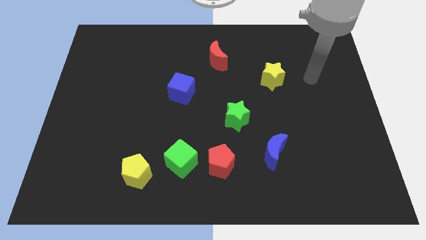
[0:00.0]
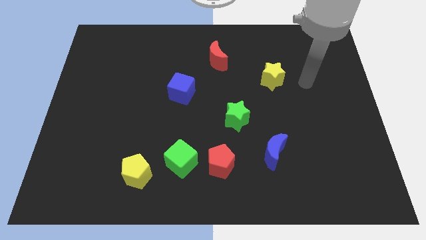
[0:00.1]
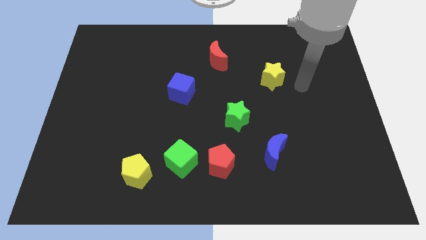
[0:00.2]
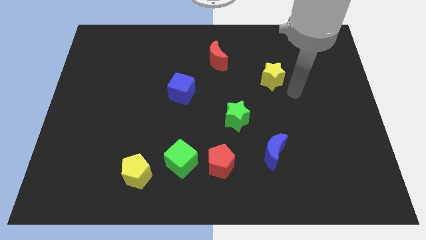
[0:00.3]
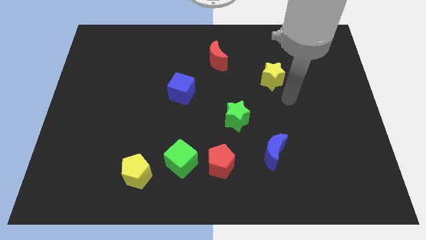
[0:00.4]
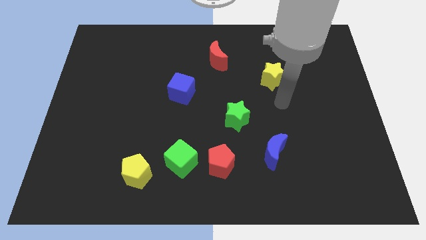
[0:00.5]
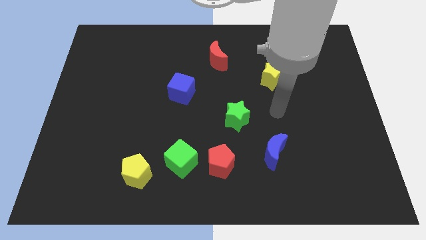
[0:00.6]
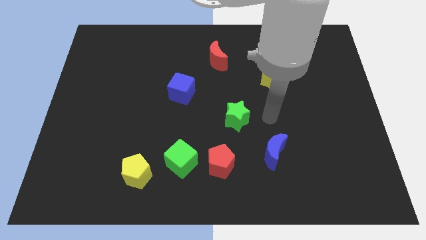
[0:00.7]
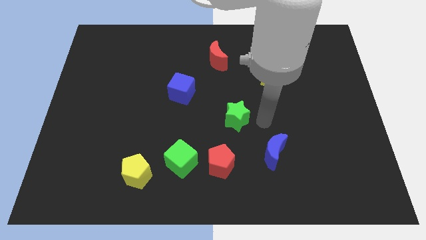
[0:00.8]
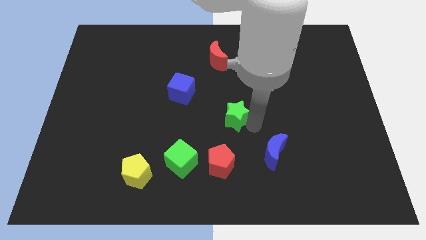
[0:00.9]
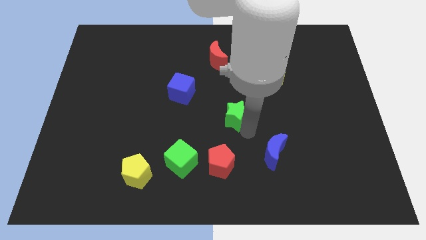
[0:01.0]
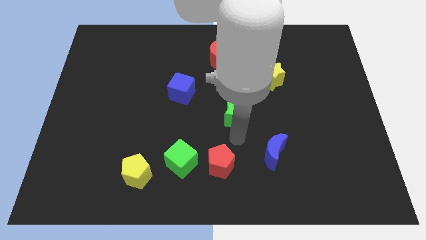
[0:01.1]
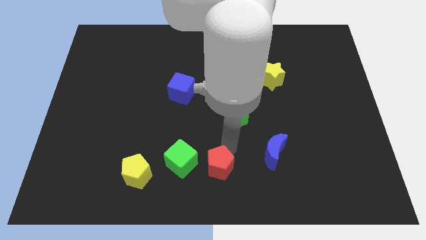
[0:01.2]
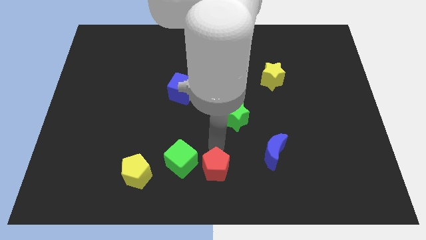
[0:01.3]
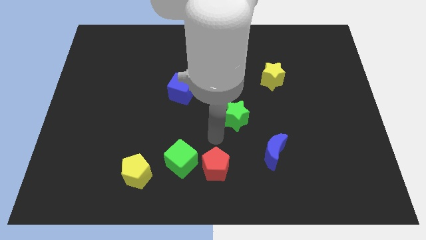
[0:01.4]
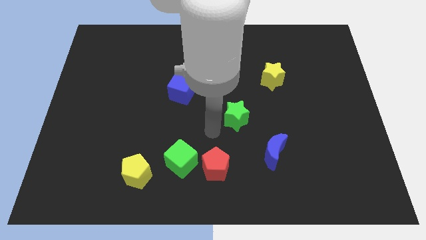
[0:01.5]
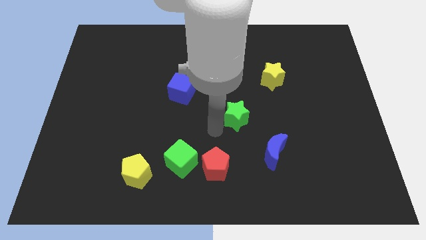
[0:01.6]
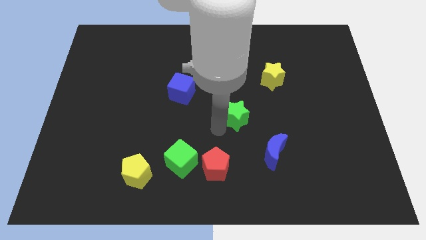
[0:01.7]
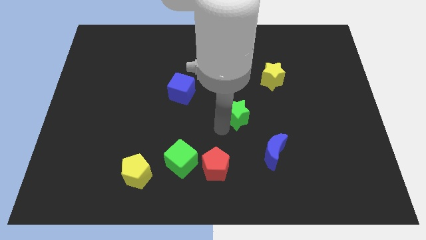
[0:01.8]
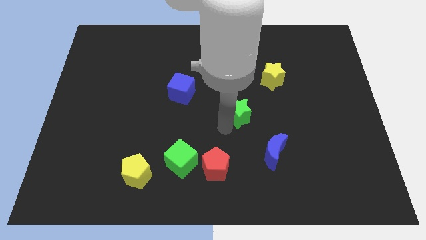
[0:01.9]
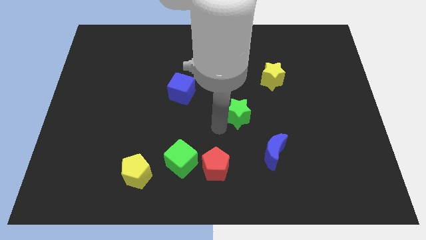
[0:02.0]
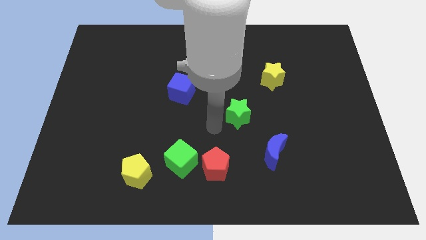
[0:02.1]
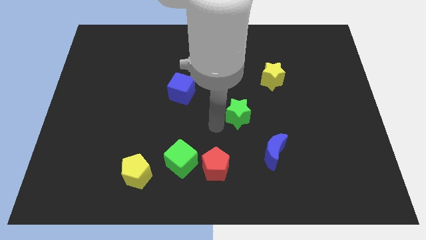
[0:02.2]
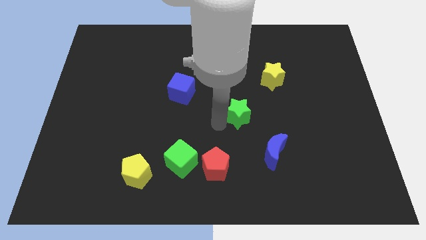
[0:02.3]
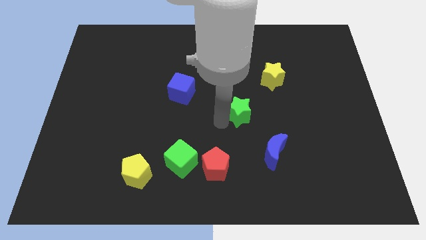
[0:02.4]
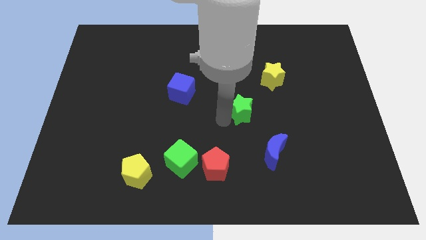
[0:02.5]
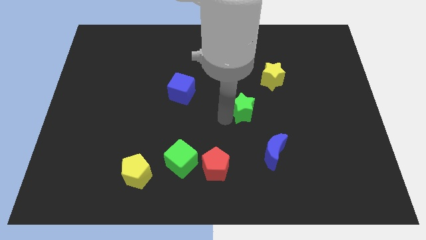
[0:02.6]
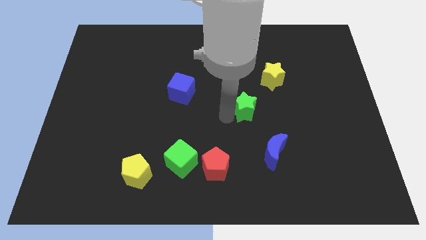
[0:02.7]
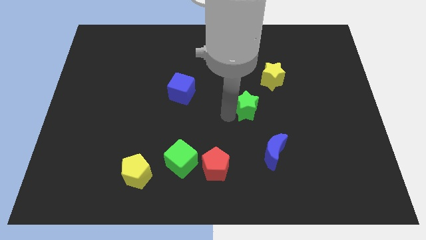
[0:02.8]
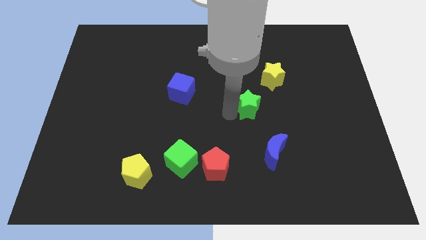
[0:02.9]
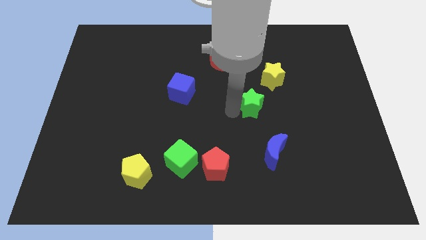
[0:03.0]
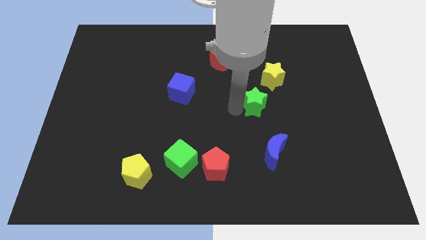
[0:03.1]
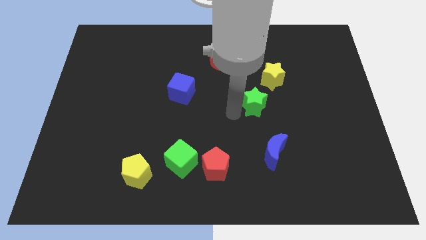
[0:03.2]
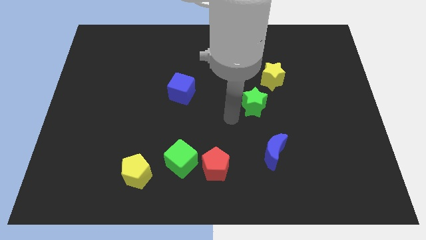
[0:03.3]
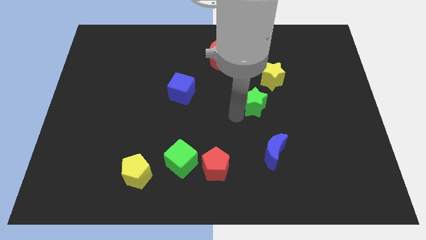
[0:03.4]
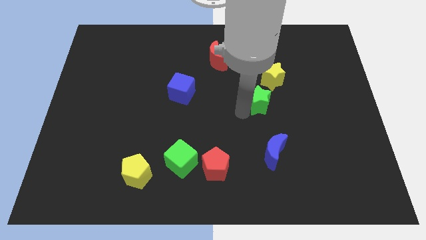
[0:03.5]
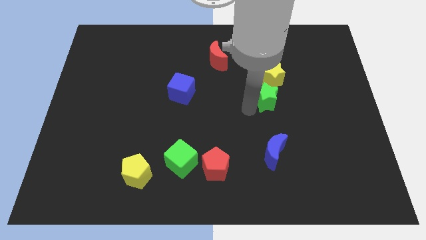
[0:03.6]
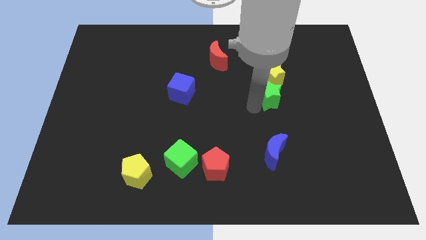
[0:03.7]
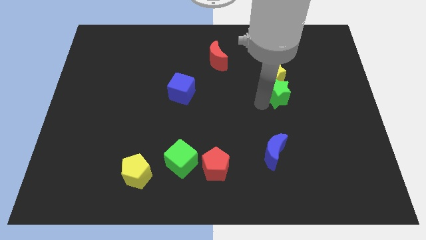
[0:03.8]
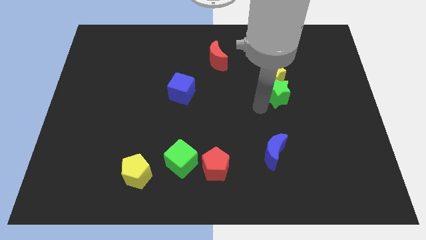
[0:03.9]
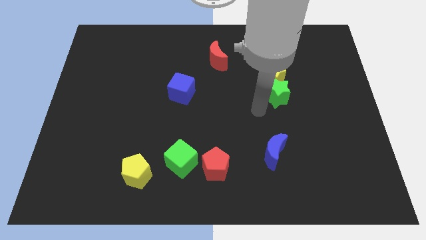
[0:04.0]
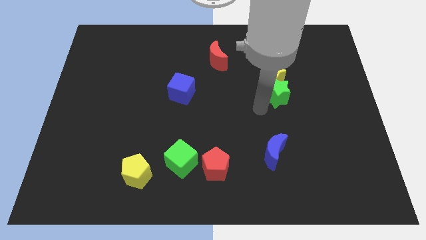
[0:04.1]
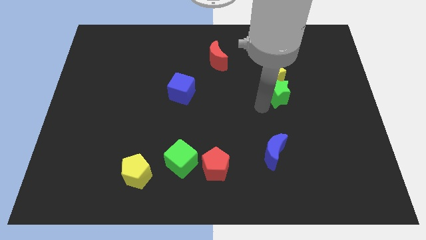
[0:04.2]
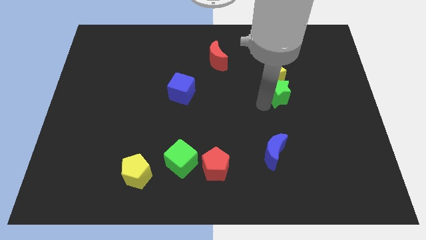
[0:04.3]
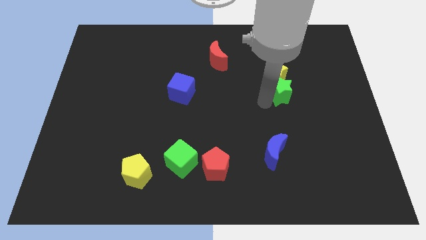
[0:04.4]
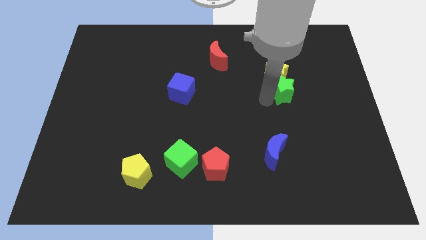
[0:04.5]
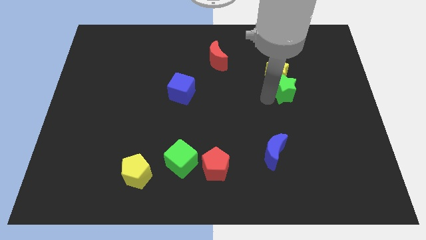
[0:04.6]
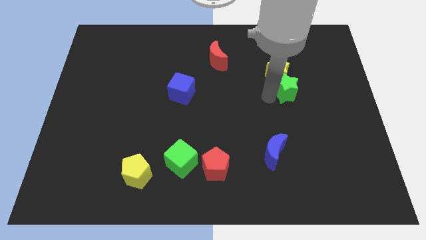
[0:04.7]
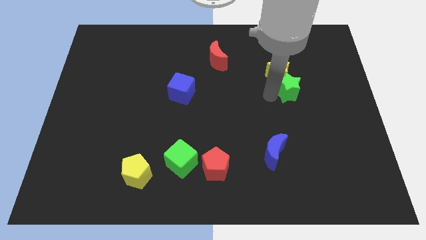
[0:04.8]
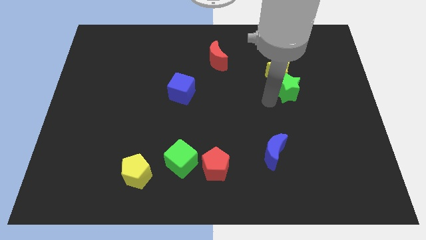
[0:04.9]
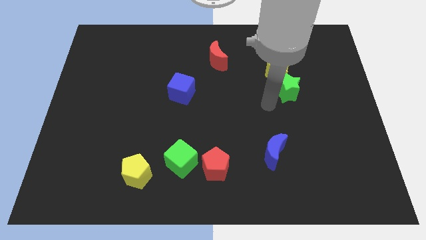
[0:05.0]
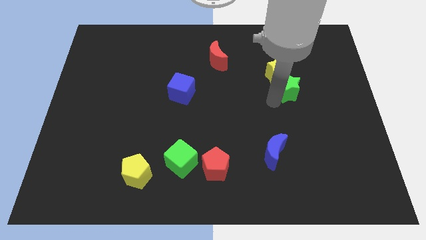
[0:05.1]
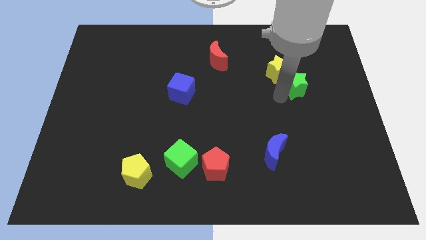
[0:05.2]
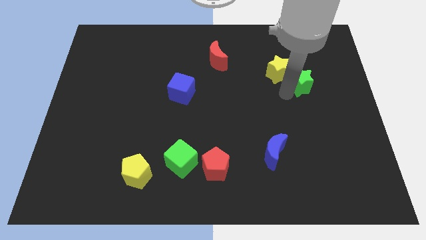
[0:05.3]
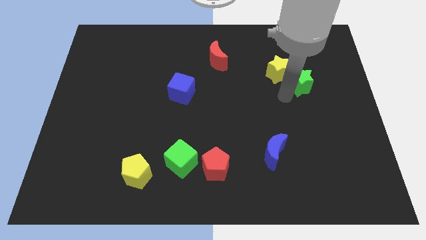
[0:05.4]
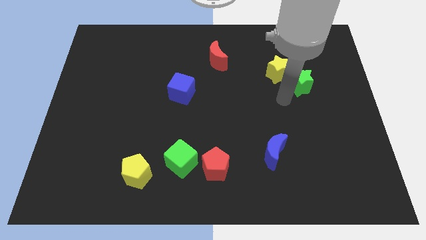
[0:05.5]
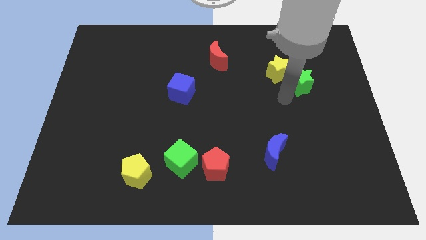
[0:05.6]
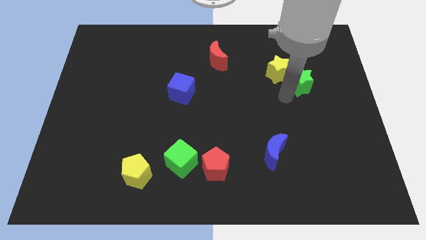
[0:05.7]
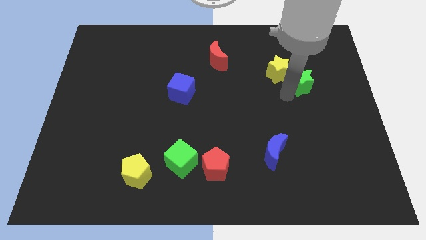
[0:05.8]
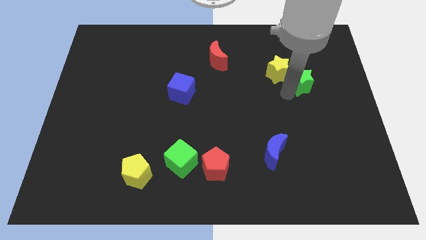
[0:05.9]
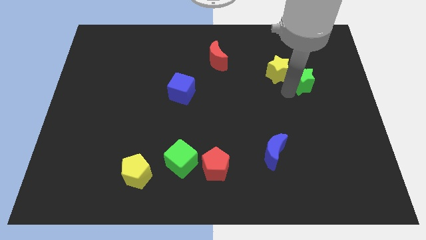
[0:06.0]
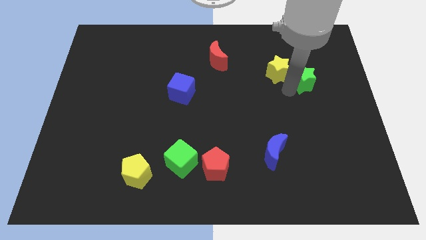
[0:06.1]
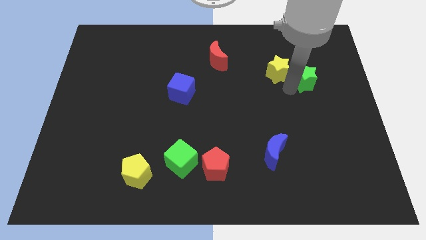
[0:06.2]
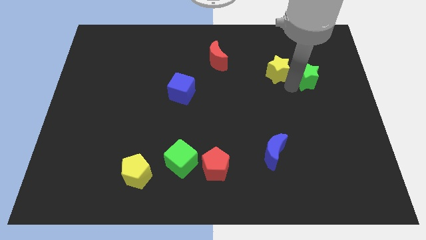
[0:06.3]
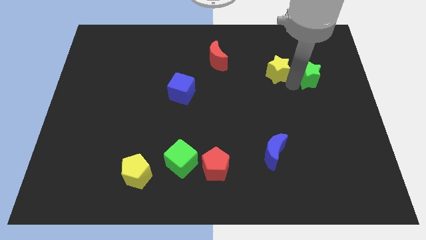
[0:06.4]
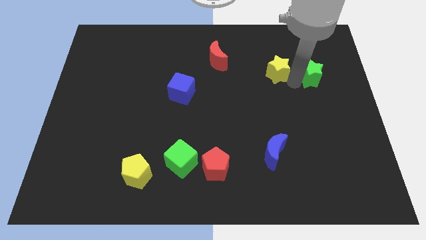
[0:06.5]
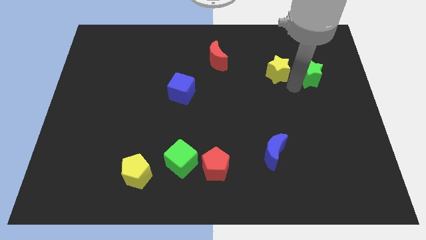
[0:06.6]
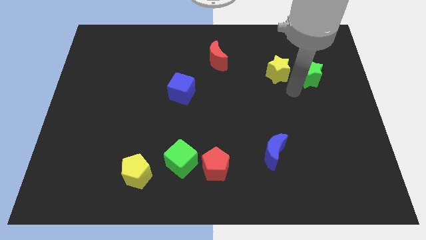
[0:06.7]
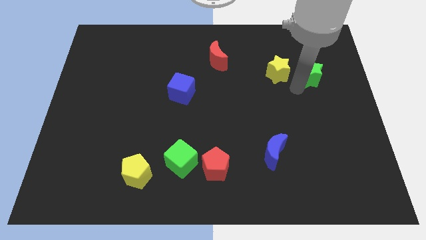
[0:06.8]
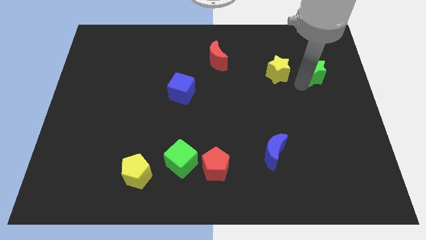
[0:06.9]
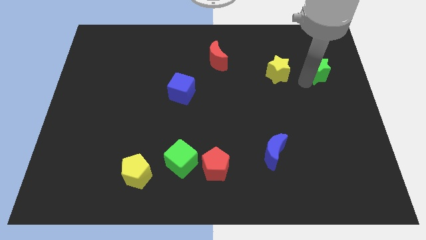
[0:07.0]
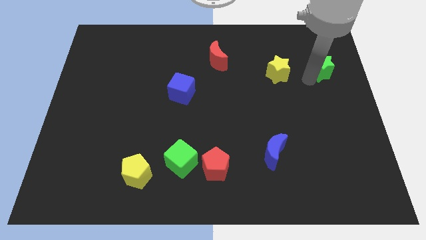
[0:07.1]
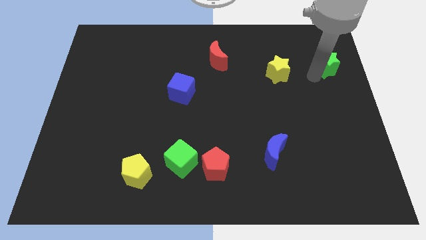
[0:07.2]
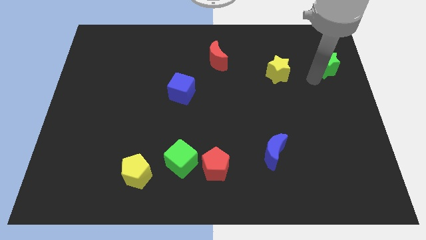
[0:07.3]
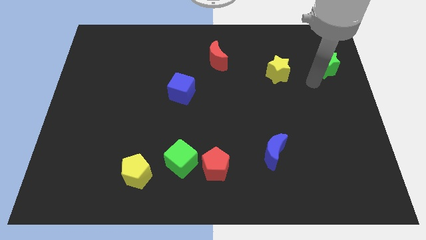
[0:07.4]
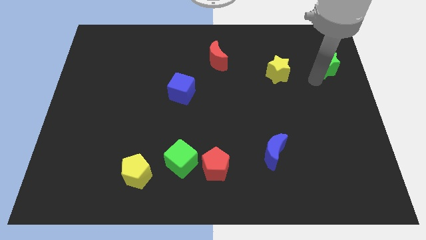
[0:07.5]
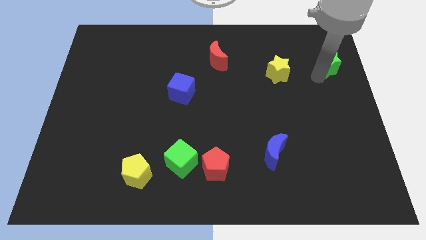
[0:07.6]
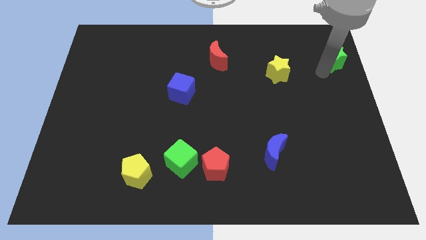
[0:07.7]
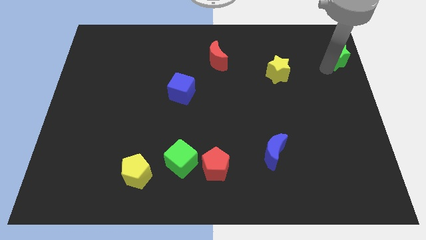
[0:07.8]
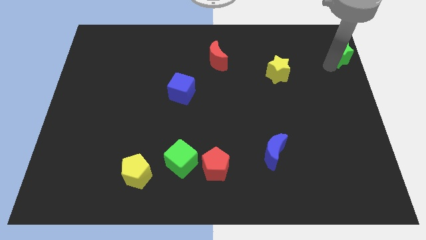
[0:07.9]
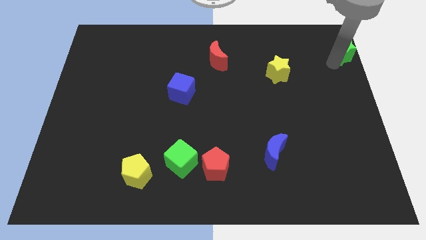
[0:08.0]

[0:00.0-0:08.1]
move the green star to the top right of the board
